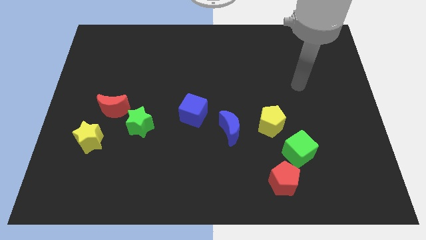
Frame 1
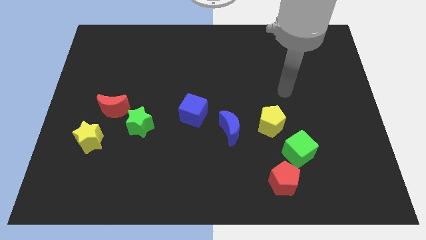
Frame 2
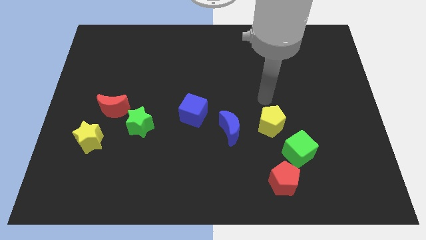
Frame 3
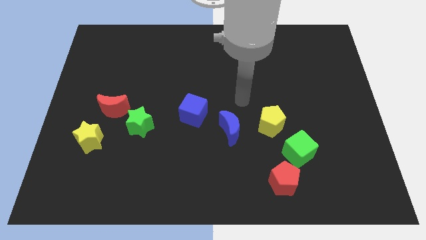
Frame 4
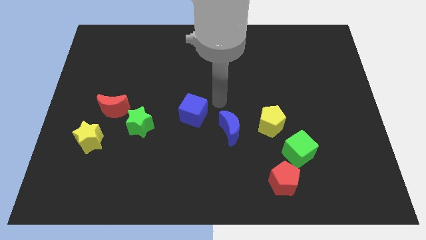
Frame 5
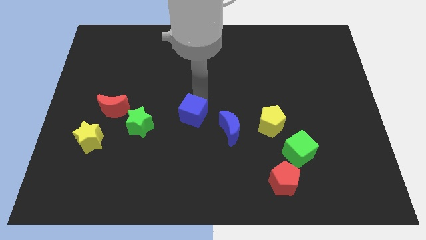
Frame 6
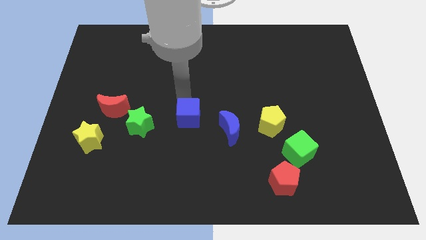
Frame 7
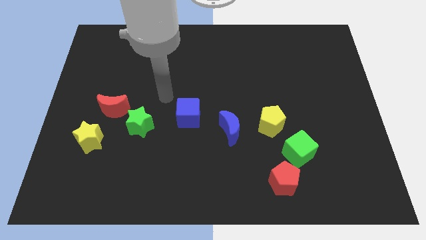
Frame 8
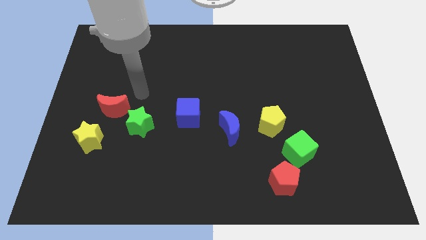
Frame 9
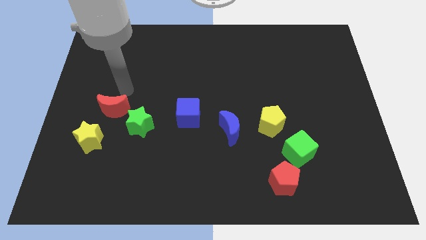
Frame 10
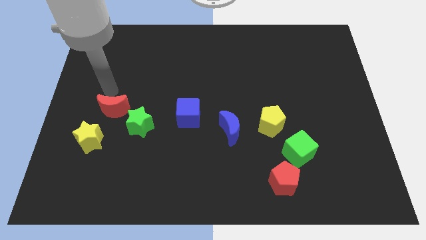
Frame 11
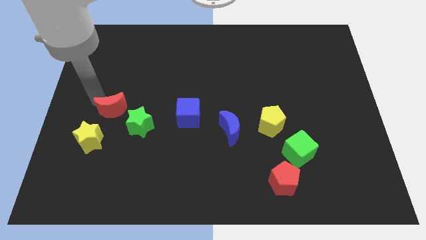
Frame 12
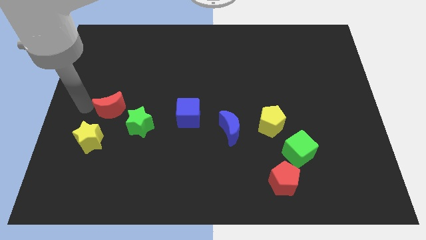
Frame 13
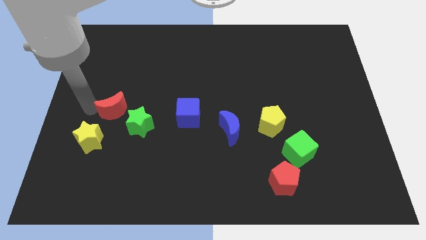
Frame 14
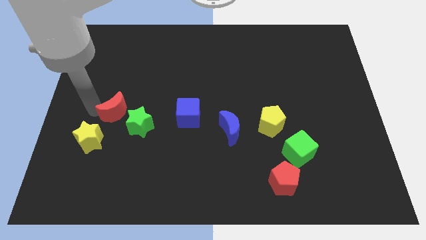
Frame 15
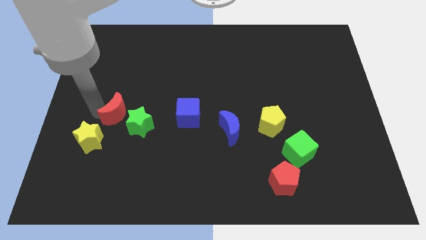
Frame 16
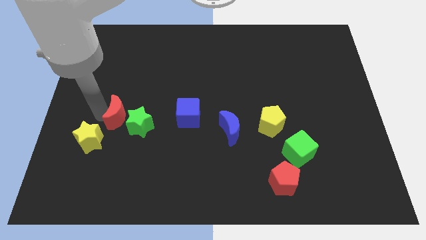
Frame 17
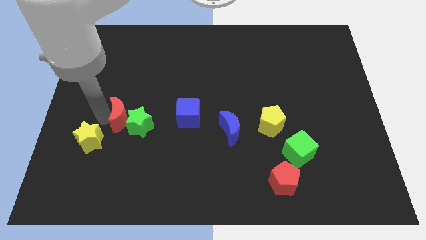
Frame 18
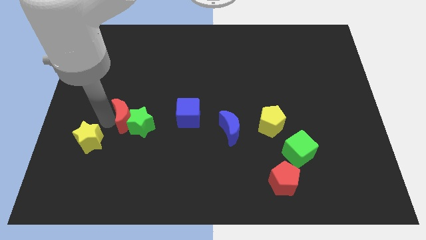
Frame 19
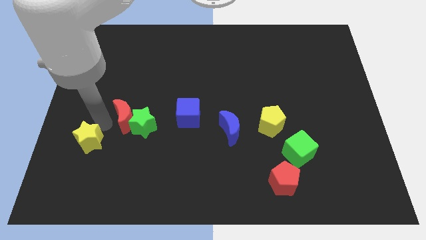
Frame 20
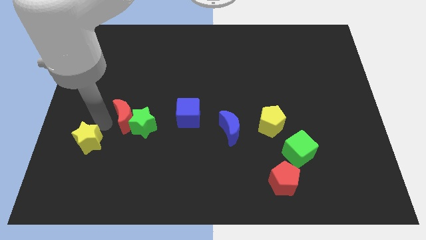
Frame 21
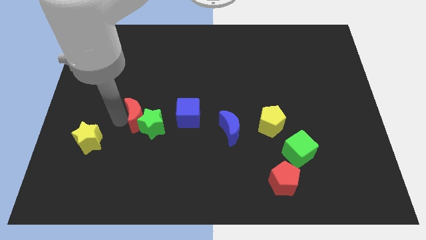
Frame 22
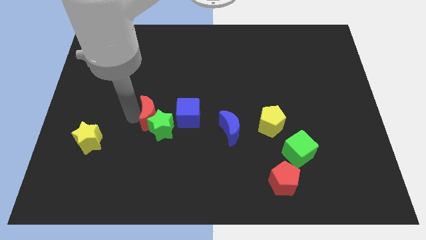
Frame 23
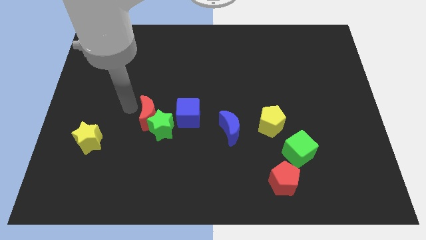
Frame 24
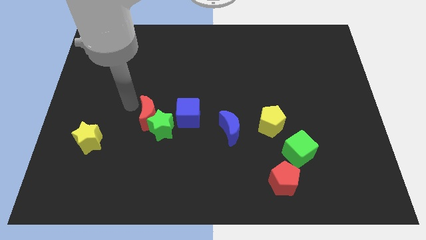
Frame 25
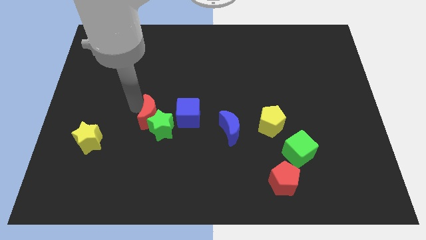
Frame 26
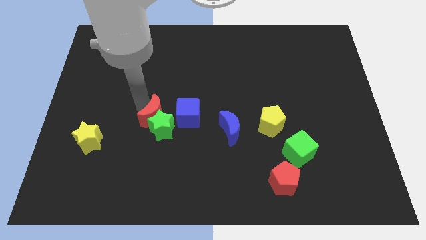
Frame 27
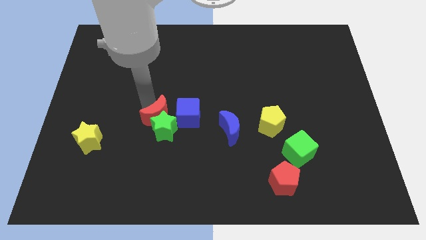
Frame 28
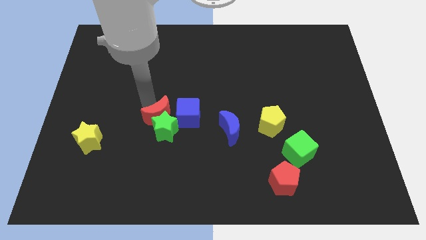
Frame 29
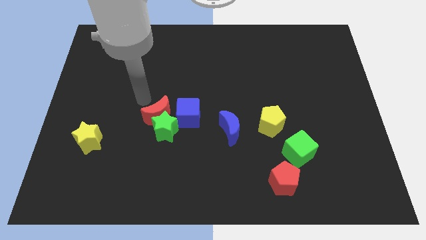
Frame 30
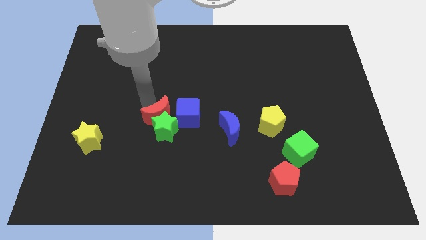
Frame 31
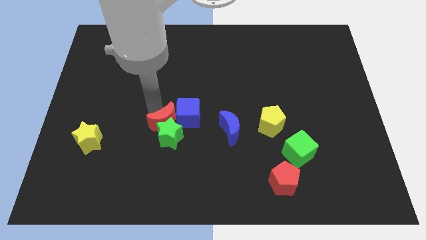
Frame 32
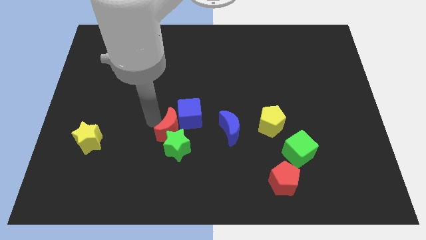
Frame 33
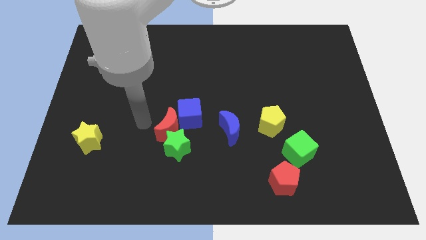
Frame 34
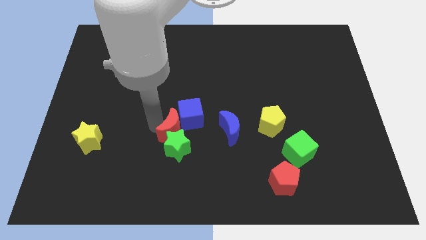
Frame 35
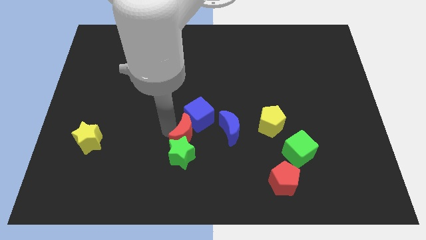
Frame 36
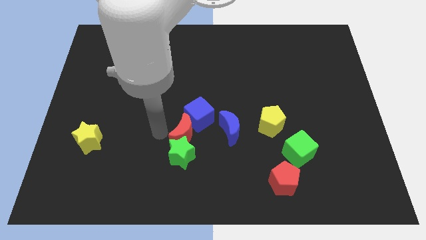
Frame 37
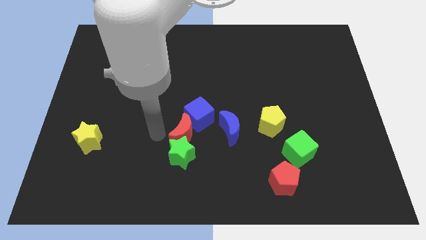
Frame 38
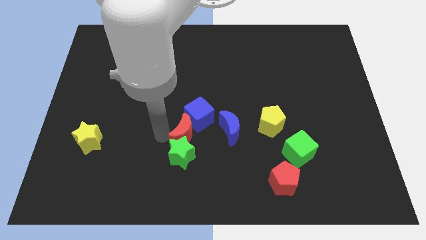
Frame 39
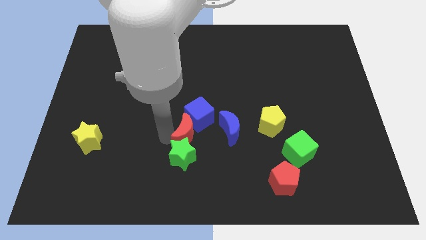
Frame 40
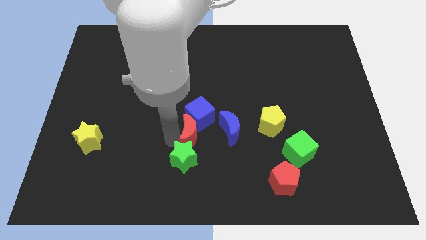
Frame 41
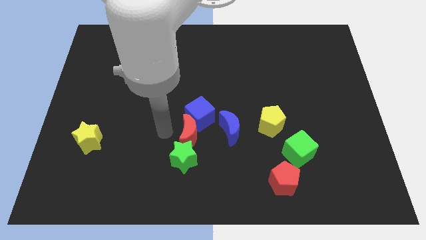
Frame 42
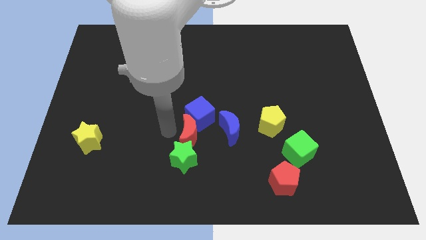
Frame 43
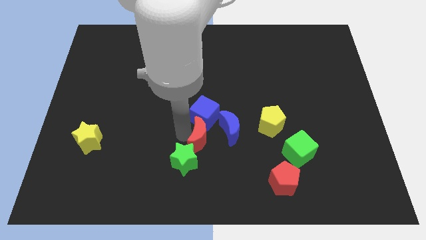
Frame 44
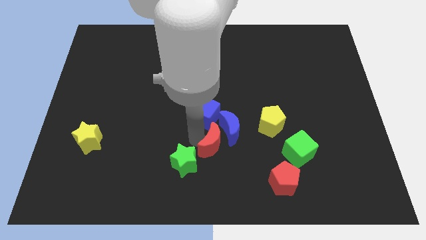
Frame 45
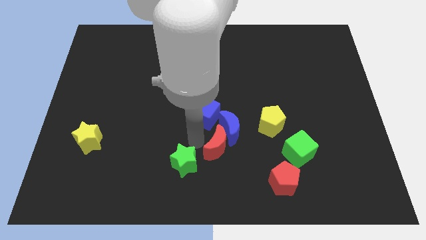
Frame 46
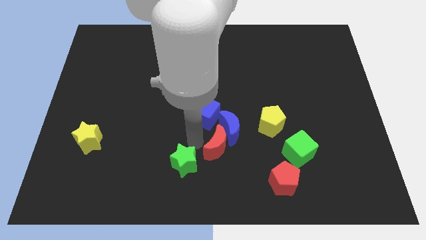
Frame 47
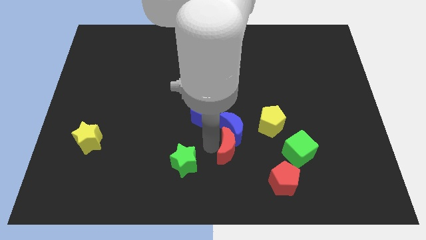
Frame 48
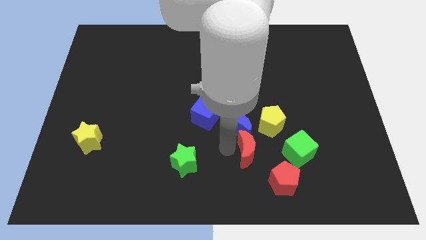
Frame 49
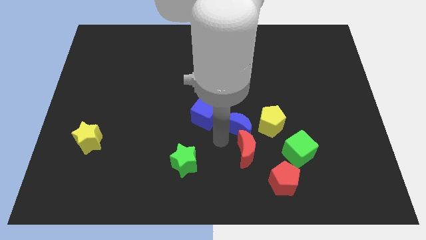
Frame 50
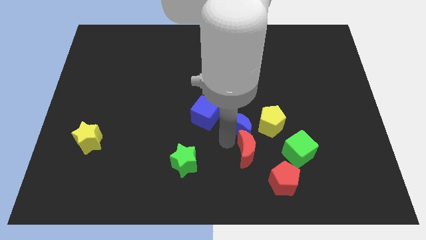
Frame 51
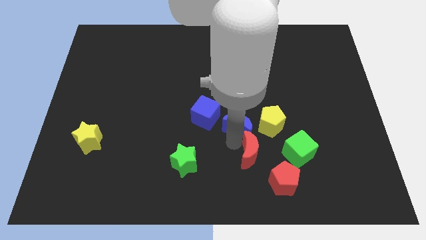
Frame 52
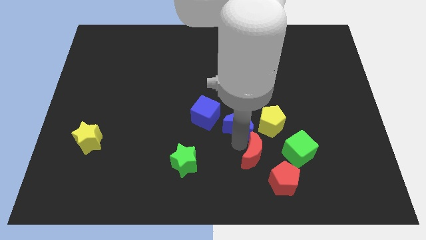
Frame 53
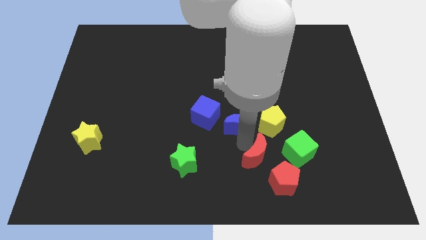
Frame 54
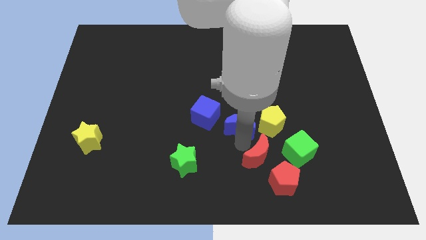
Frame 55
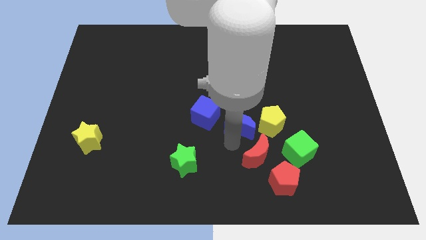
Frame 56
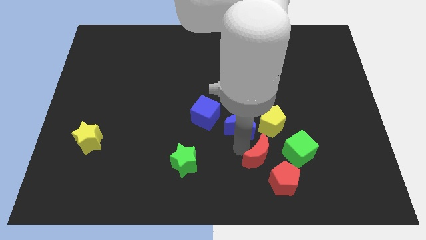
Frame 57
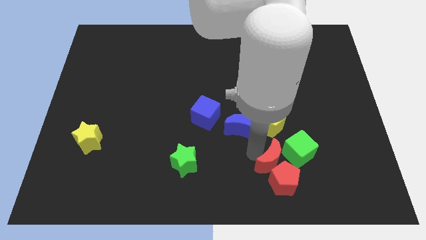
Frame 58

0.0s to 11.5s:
push the red moon close to the red pentagon

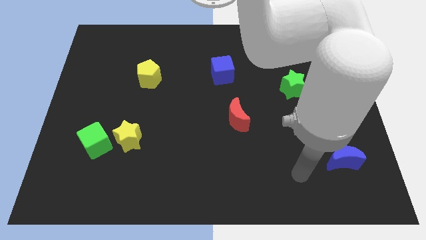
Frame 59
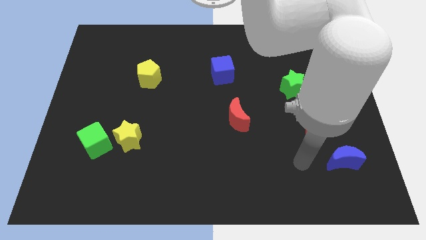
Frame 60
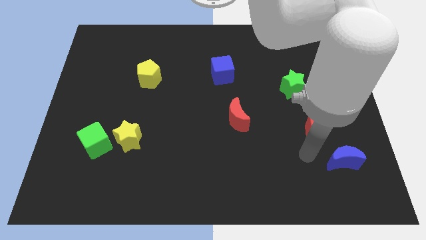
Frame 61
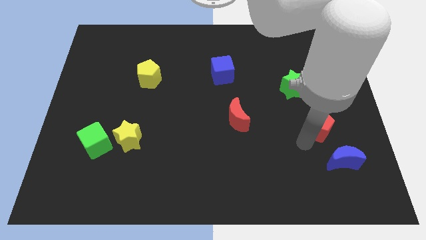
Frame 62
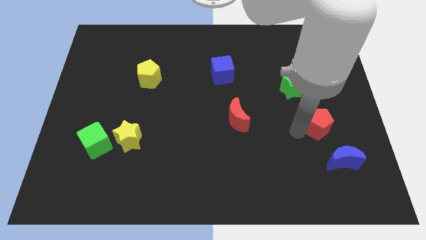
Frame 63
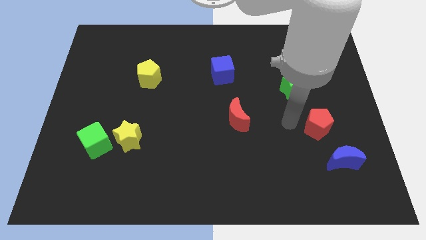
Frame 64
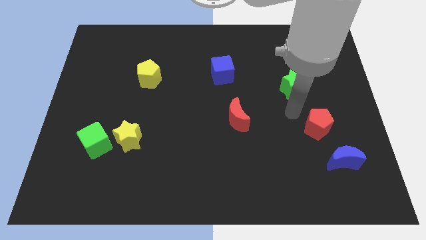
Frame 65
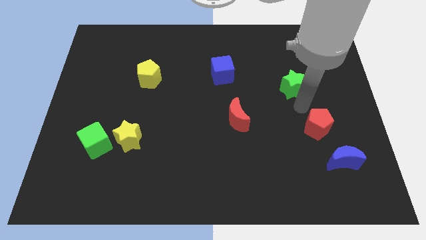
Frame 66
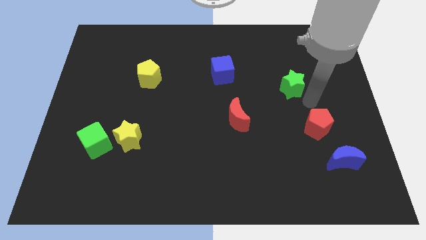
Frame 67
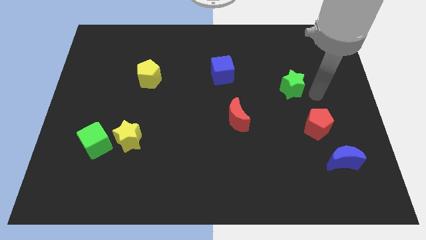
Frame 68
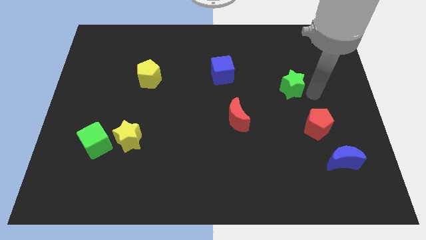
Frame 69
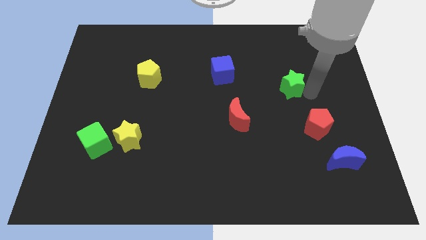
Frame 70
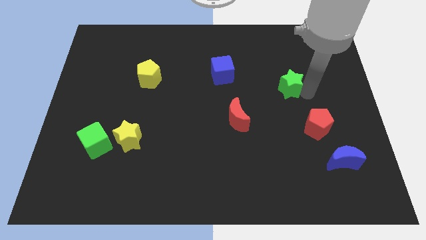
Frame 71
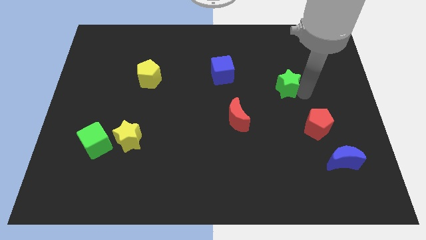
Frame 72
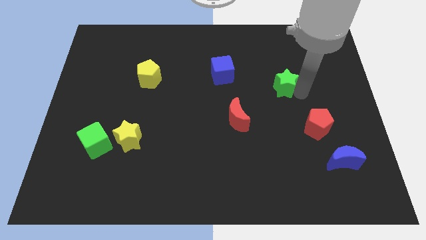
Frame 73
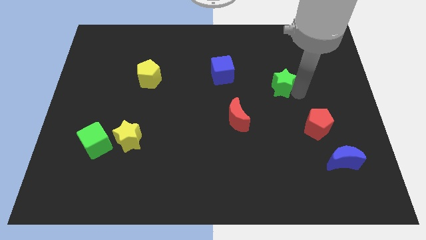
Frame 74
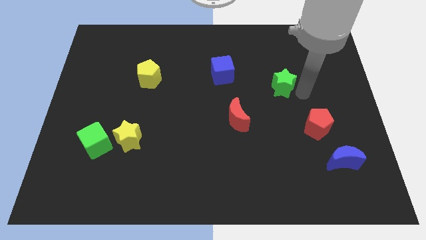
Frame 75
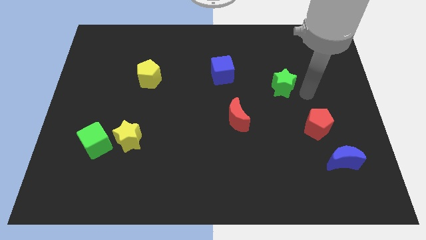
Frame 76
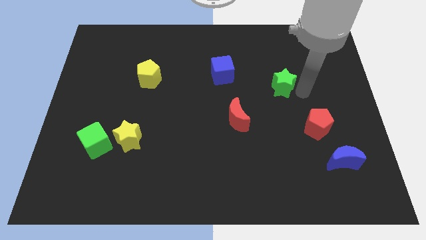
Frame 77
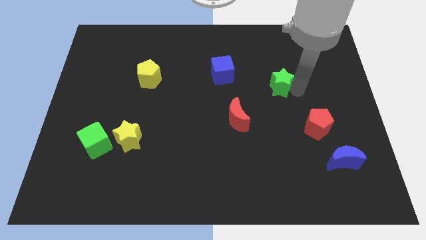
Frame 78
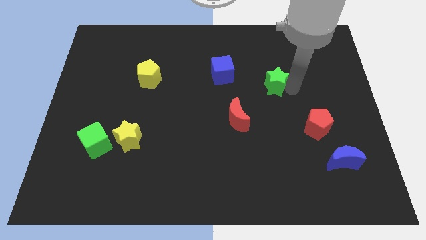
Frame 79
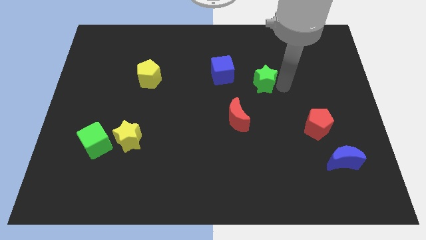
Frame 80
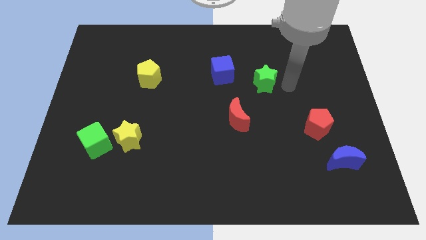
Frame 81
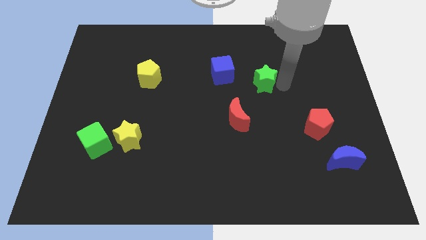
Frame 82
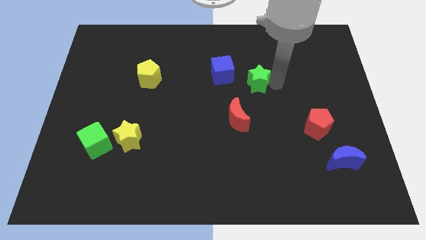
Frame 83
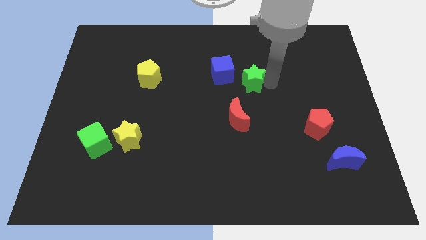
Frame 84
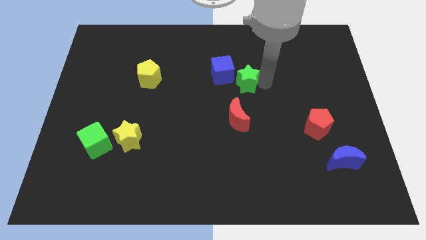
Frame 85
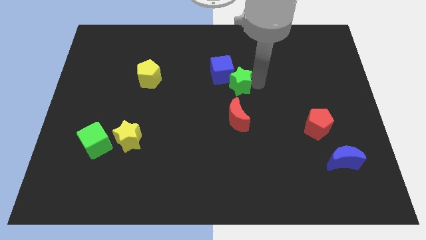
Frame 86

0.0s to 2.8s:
move the green star to the blue cube
